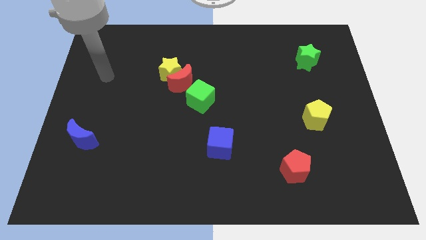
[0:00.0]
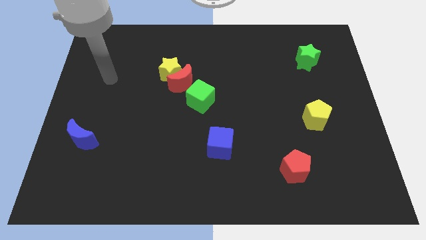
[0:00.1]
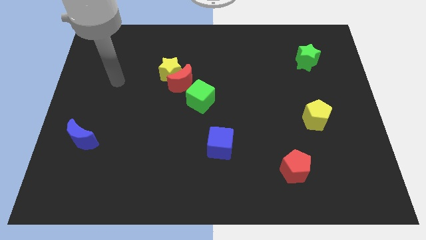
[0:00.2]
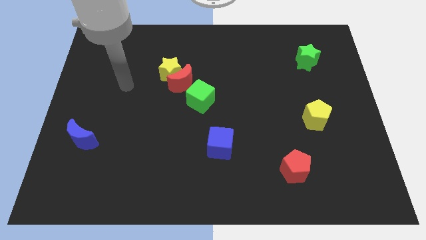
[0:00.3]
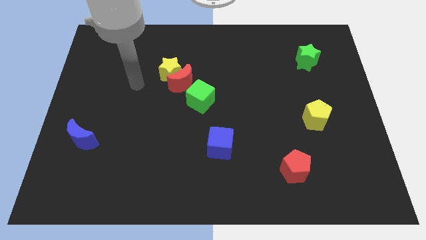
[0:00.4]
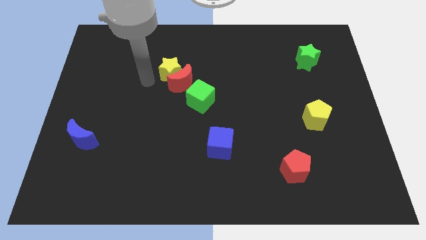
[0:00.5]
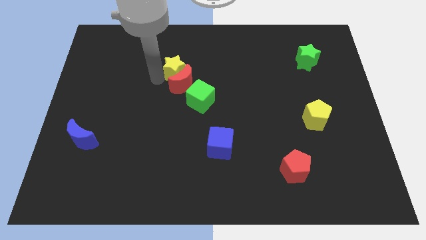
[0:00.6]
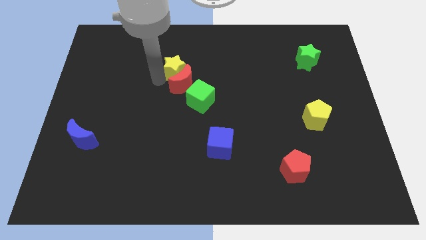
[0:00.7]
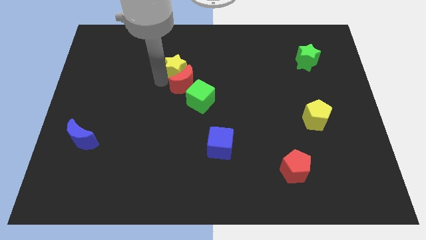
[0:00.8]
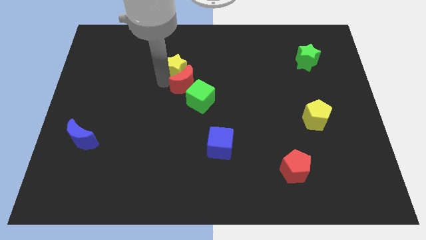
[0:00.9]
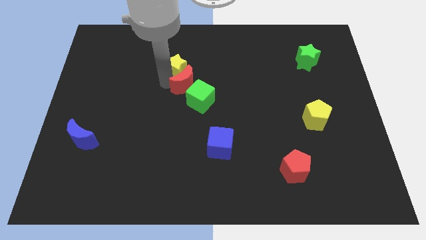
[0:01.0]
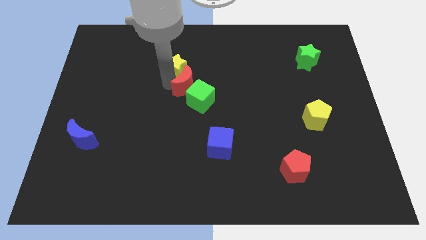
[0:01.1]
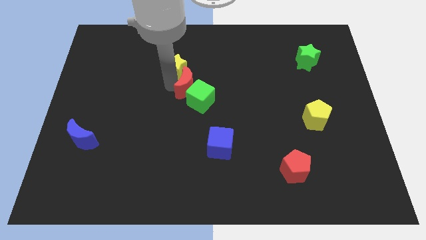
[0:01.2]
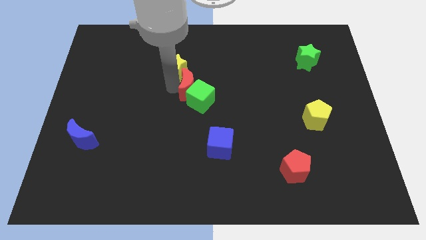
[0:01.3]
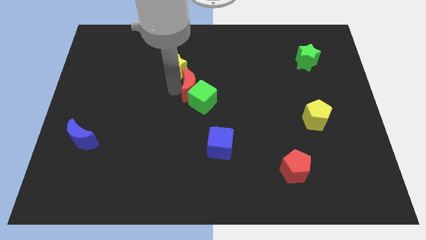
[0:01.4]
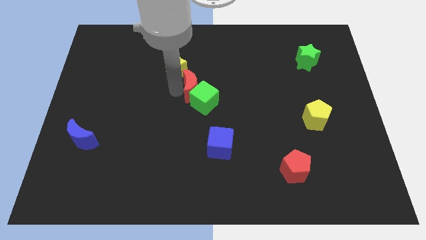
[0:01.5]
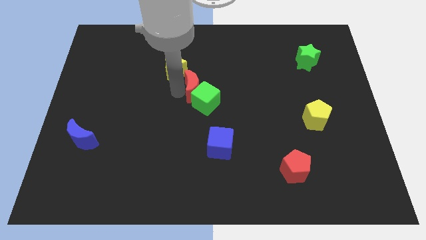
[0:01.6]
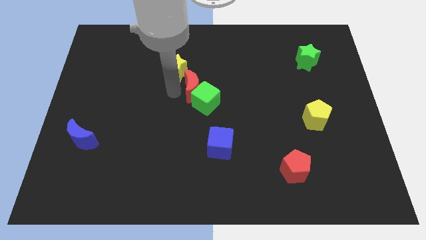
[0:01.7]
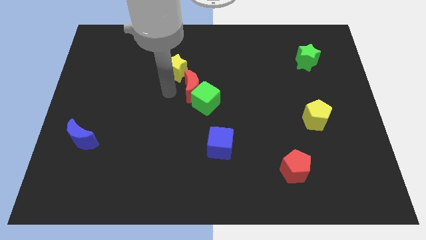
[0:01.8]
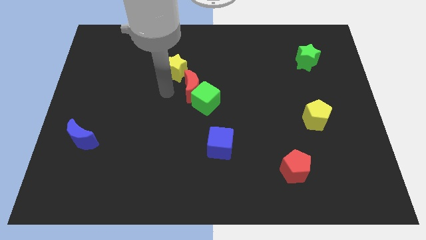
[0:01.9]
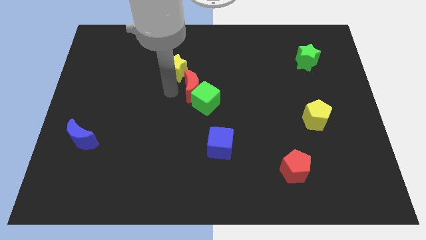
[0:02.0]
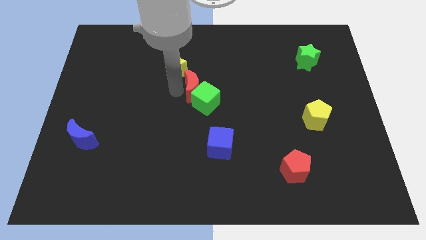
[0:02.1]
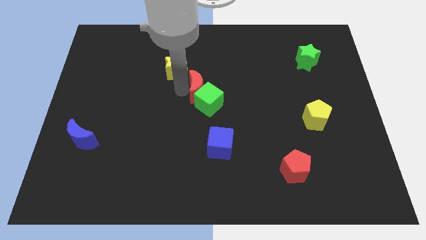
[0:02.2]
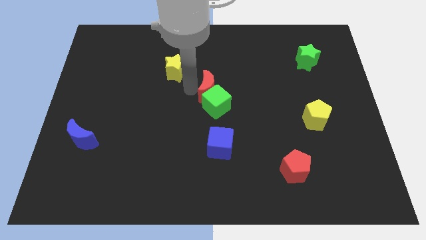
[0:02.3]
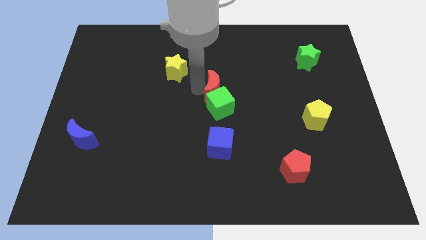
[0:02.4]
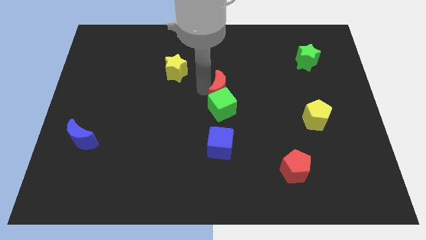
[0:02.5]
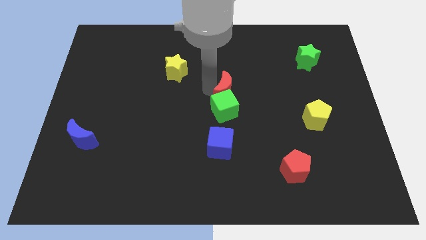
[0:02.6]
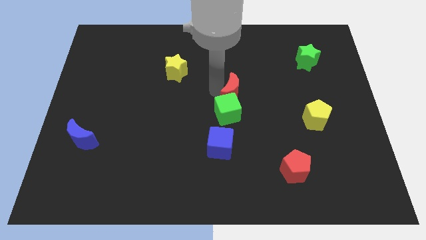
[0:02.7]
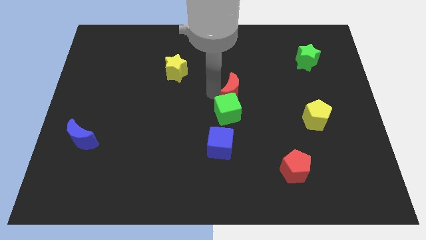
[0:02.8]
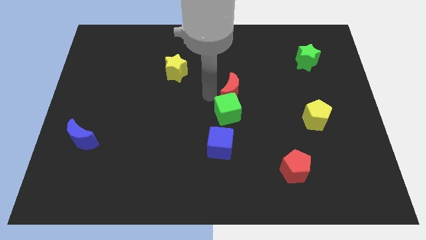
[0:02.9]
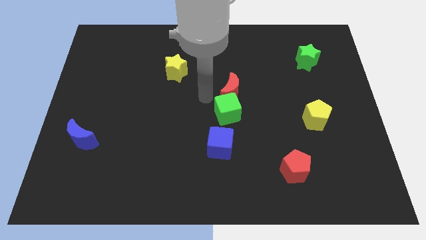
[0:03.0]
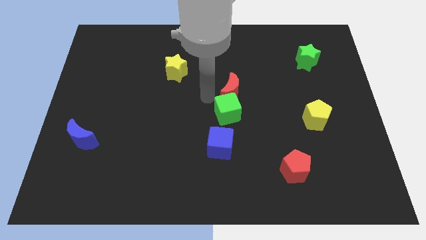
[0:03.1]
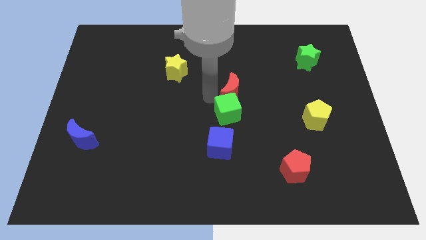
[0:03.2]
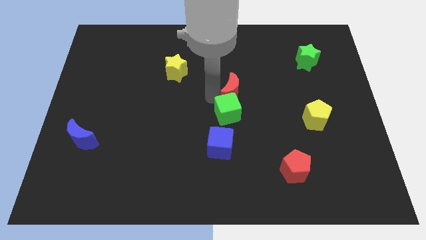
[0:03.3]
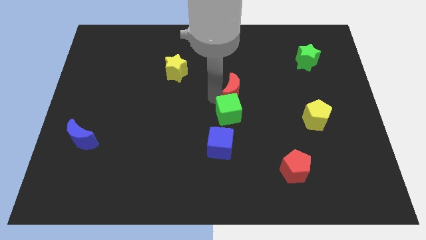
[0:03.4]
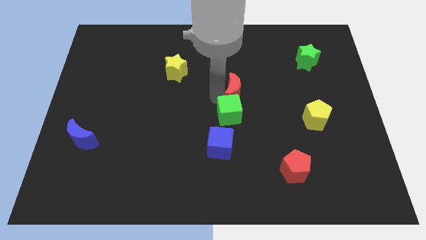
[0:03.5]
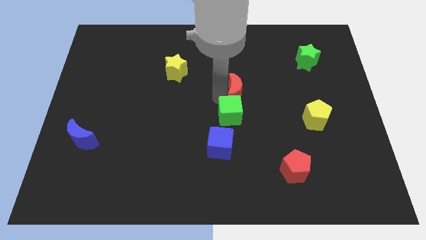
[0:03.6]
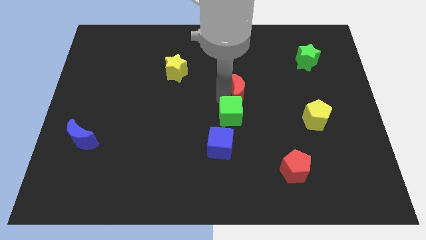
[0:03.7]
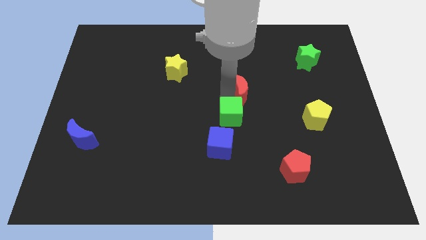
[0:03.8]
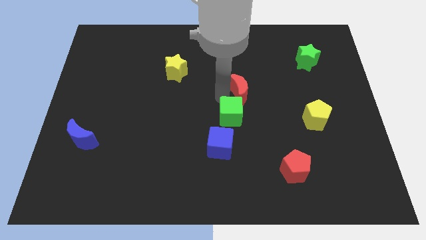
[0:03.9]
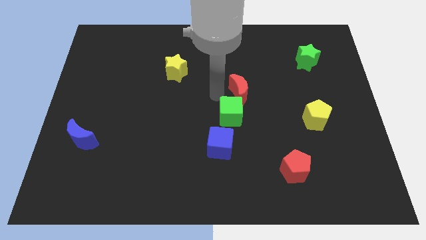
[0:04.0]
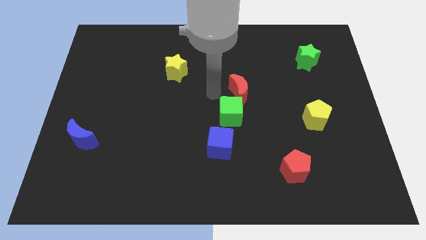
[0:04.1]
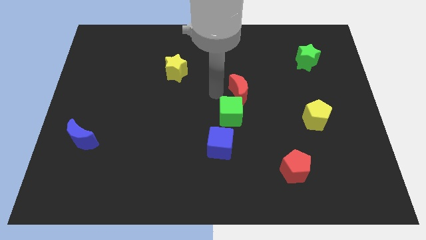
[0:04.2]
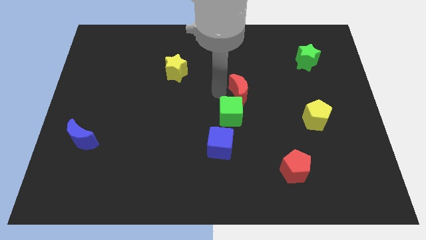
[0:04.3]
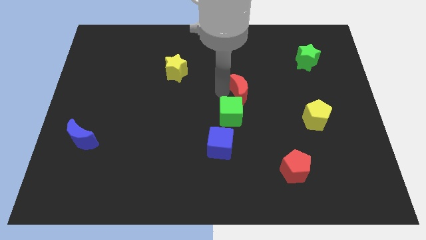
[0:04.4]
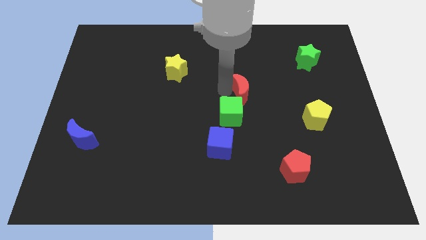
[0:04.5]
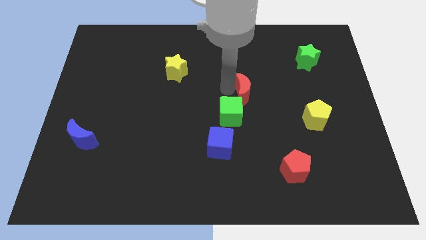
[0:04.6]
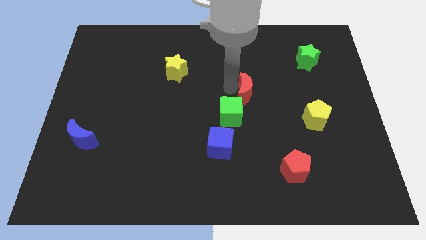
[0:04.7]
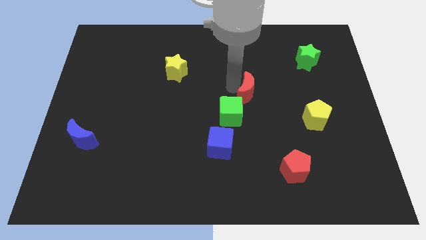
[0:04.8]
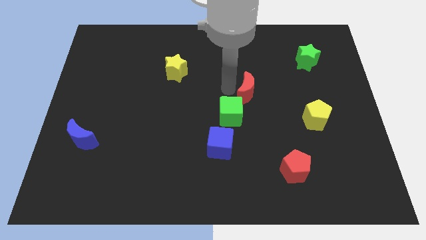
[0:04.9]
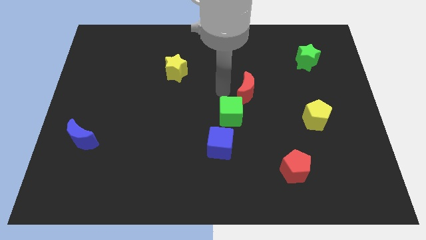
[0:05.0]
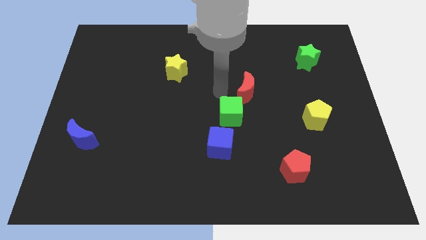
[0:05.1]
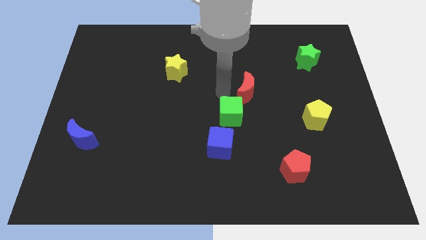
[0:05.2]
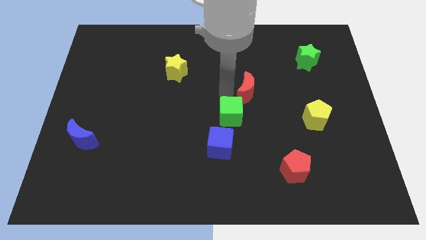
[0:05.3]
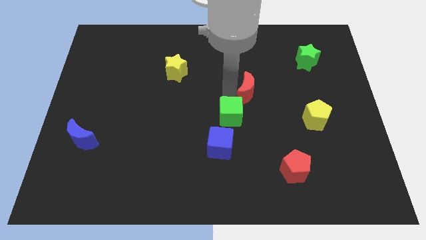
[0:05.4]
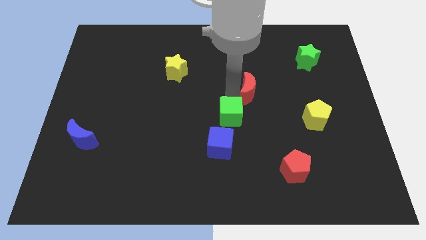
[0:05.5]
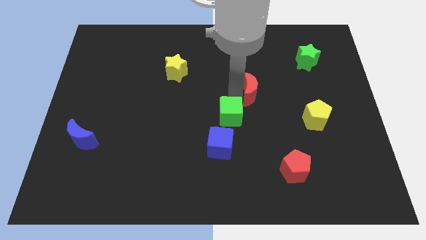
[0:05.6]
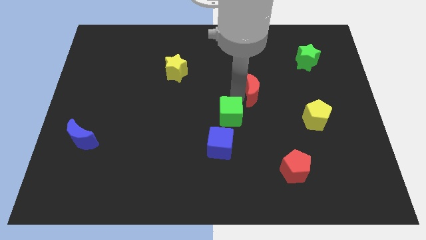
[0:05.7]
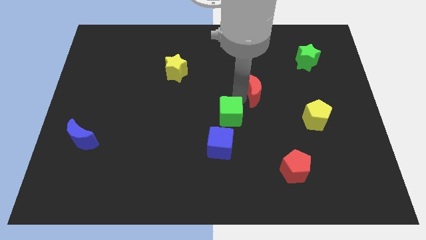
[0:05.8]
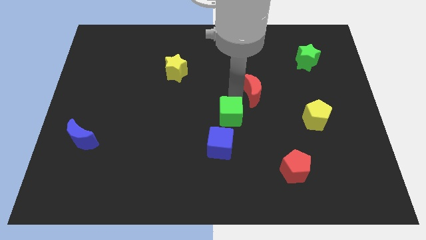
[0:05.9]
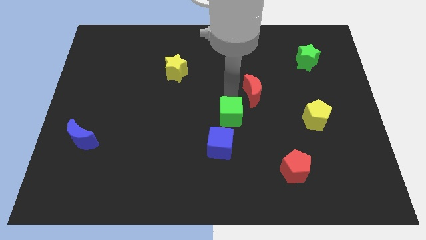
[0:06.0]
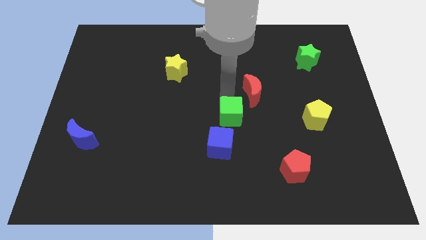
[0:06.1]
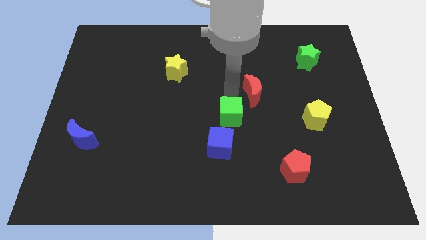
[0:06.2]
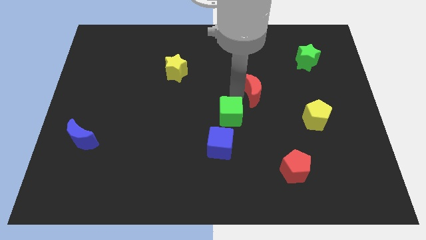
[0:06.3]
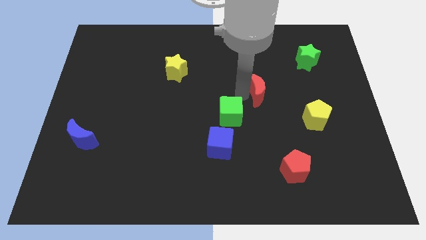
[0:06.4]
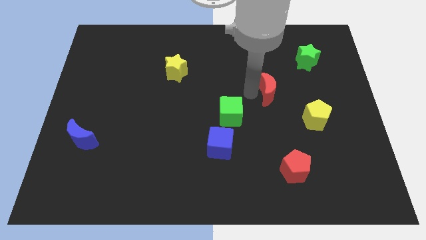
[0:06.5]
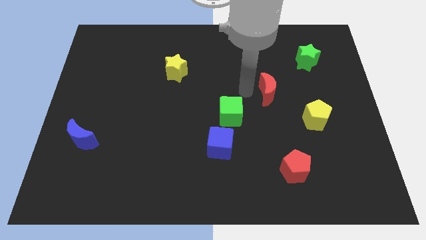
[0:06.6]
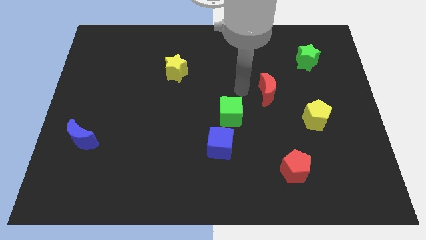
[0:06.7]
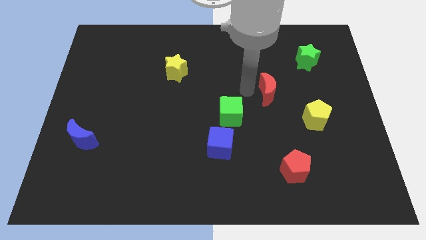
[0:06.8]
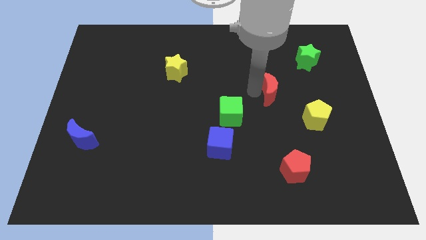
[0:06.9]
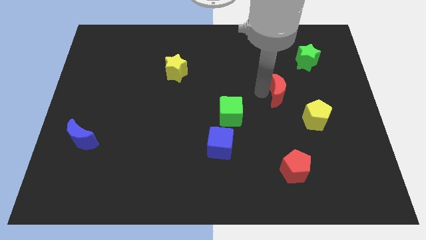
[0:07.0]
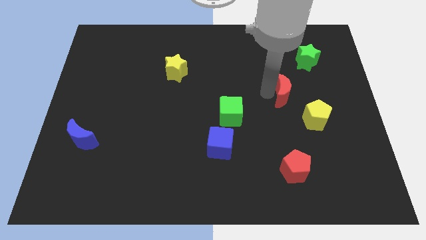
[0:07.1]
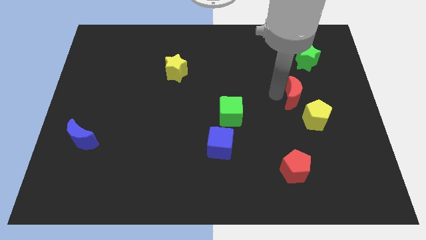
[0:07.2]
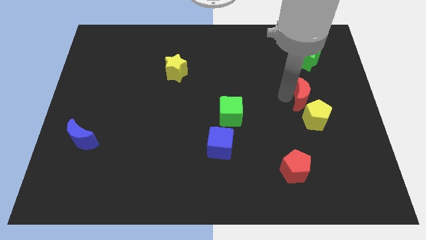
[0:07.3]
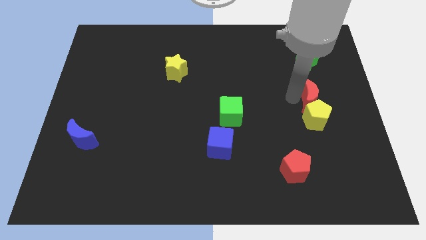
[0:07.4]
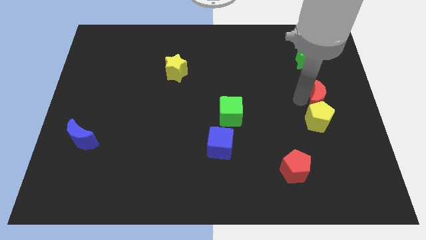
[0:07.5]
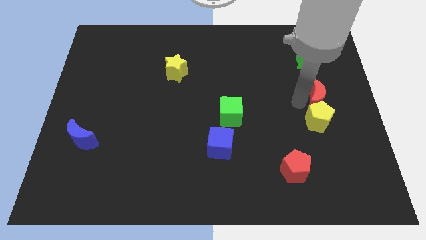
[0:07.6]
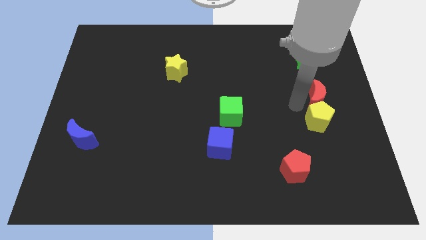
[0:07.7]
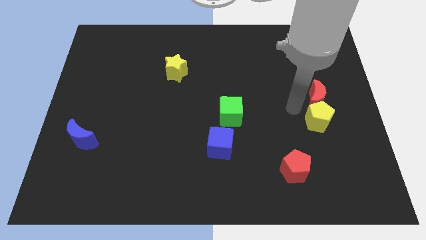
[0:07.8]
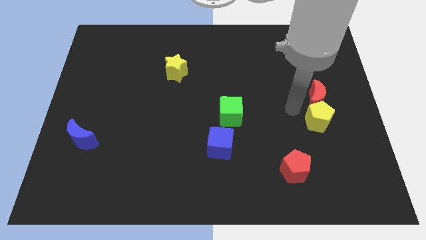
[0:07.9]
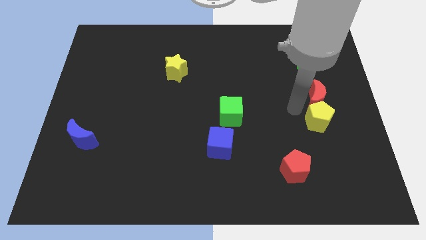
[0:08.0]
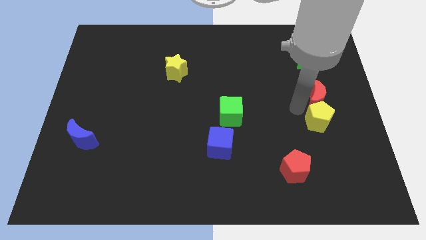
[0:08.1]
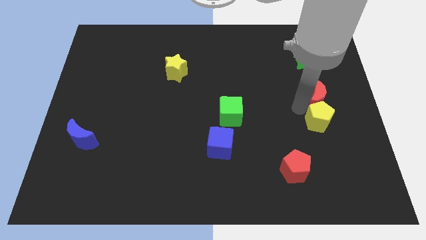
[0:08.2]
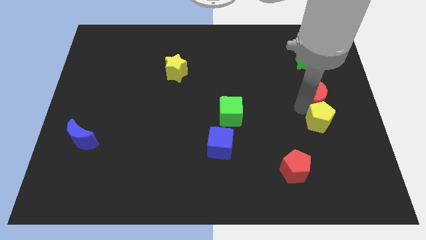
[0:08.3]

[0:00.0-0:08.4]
slide the red moon to the right side
